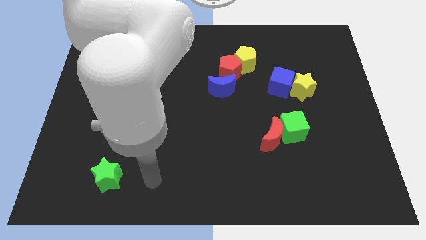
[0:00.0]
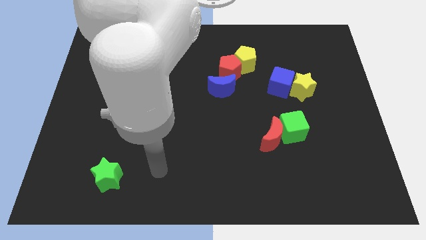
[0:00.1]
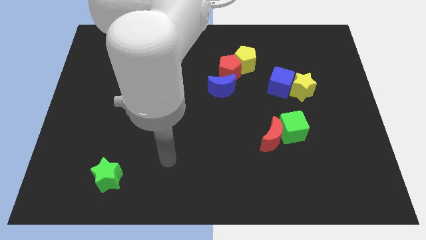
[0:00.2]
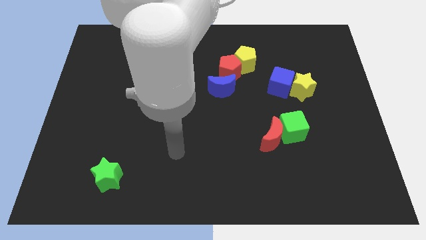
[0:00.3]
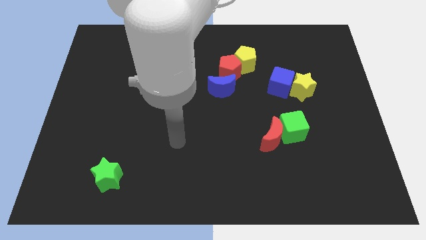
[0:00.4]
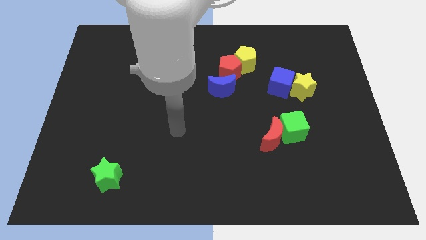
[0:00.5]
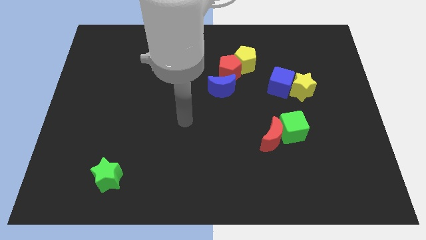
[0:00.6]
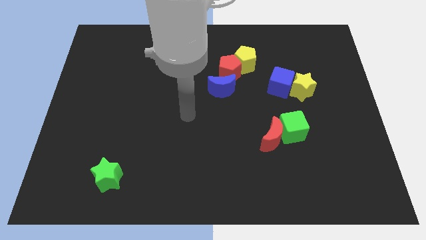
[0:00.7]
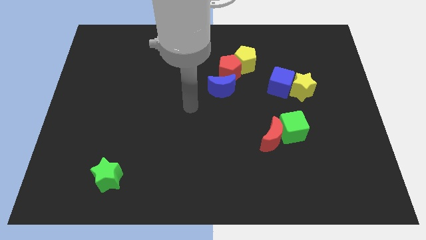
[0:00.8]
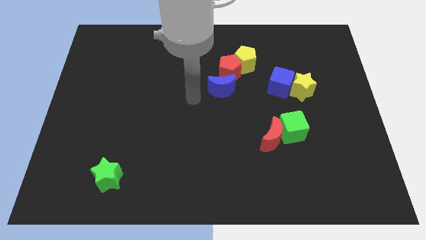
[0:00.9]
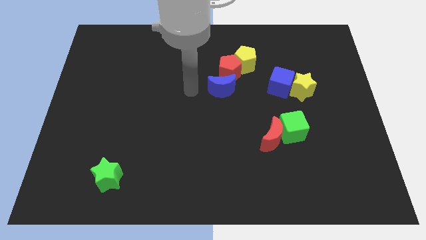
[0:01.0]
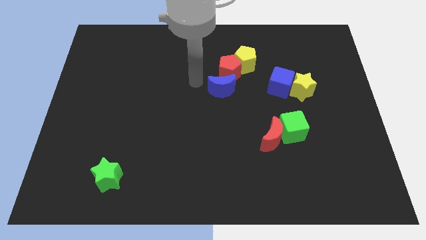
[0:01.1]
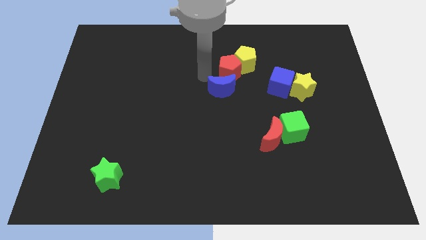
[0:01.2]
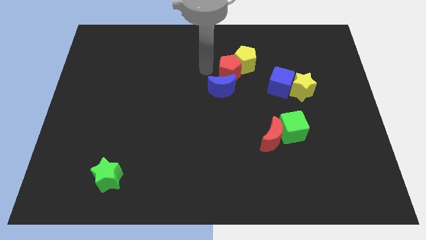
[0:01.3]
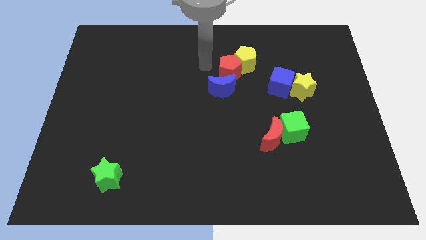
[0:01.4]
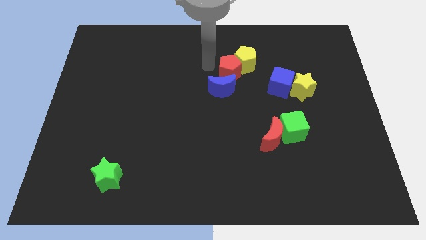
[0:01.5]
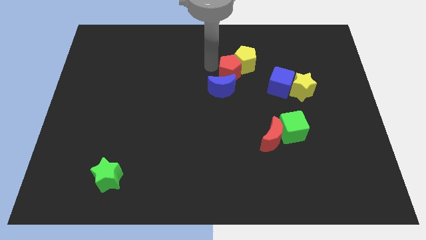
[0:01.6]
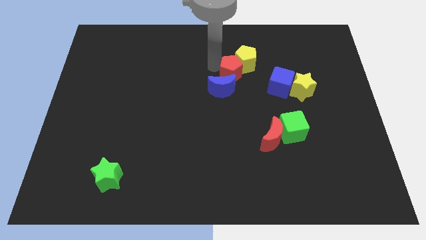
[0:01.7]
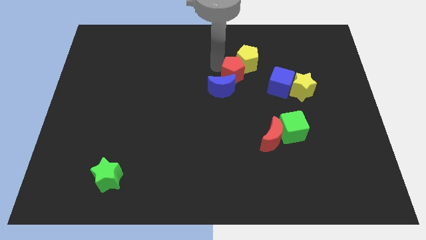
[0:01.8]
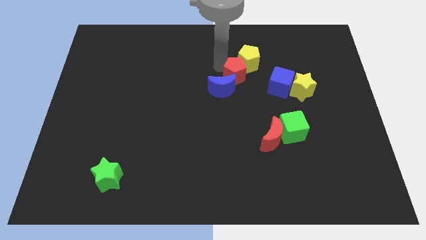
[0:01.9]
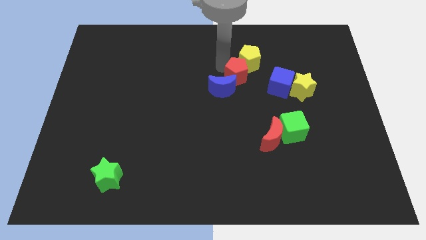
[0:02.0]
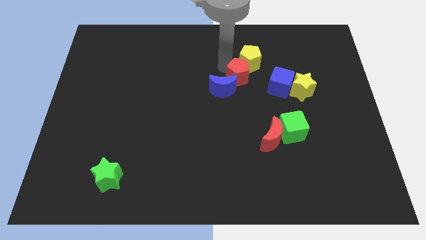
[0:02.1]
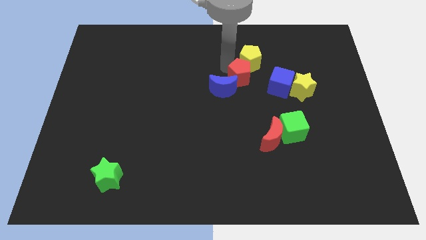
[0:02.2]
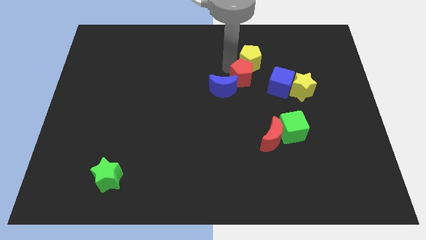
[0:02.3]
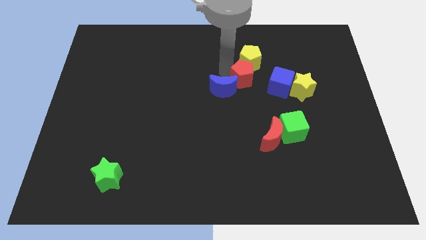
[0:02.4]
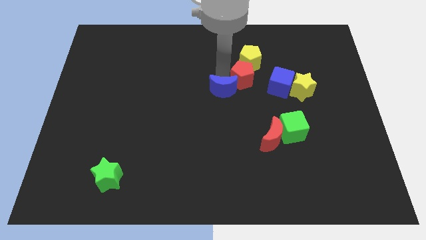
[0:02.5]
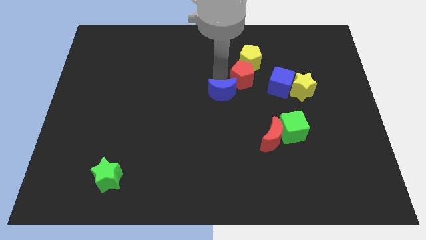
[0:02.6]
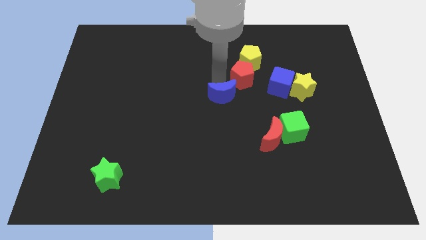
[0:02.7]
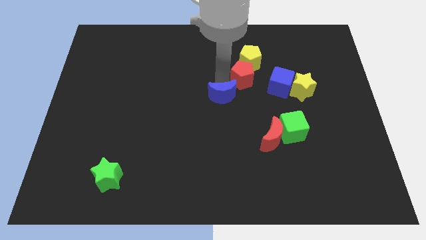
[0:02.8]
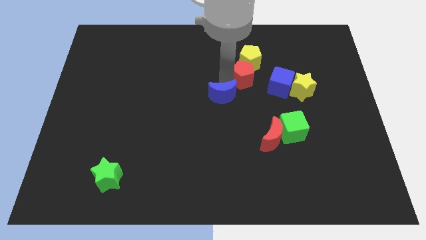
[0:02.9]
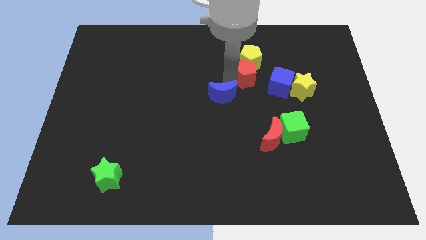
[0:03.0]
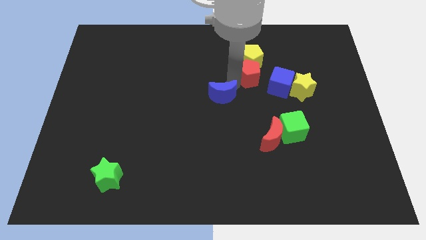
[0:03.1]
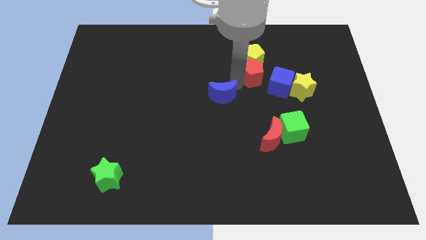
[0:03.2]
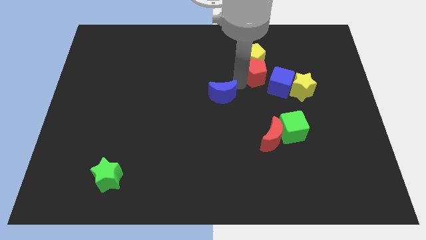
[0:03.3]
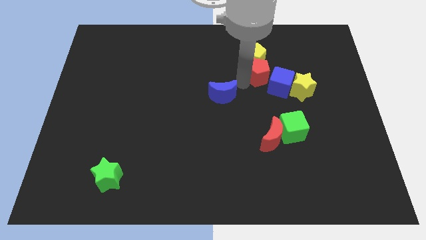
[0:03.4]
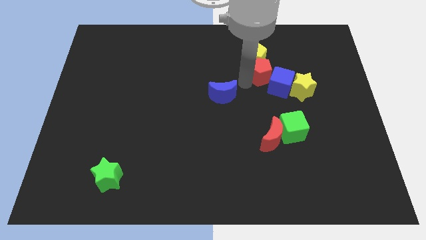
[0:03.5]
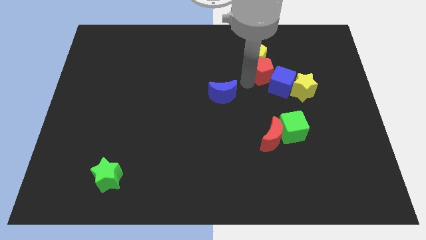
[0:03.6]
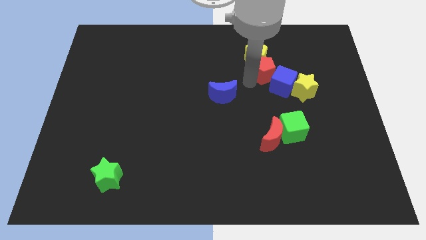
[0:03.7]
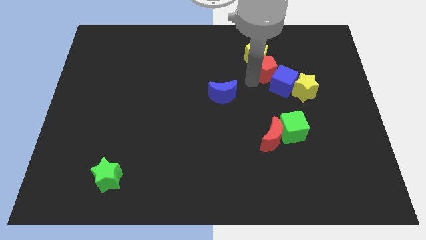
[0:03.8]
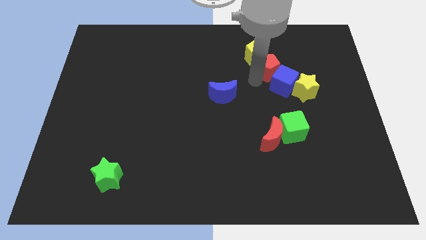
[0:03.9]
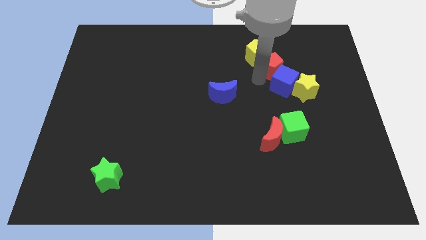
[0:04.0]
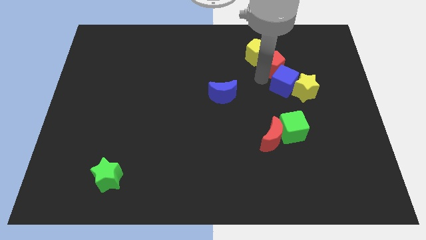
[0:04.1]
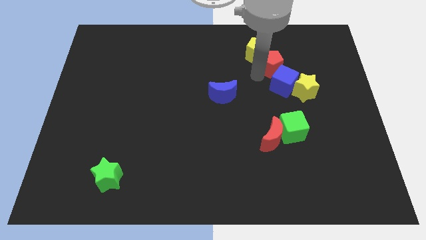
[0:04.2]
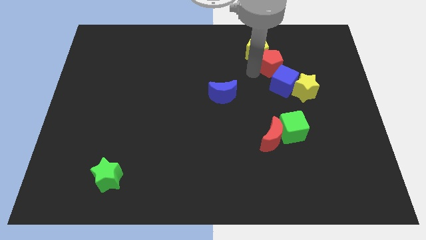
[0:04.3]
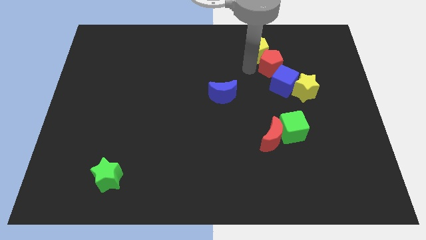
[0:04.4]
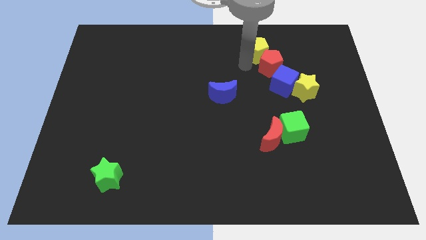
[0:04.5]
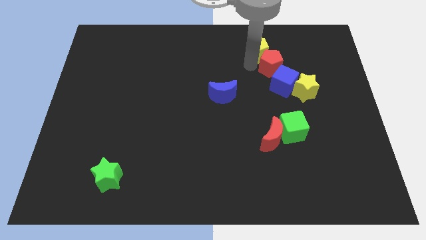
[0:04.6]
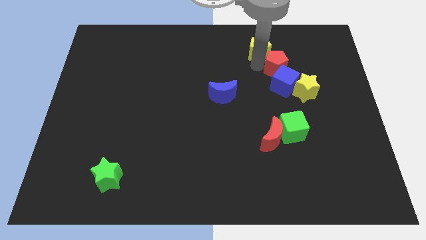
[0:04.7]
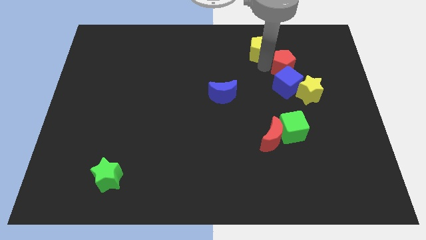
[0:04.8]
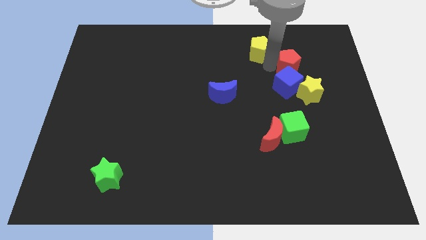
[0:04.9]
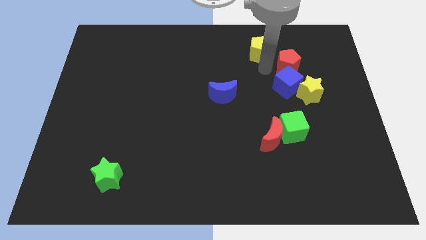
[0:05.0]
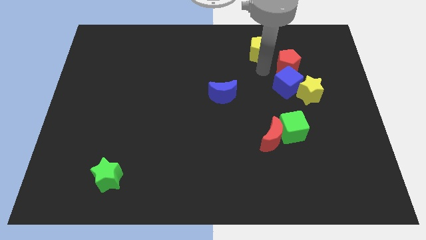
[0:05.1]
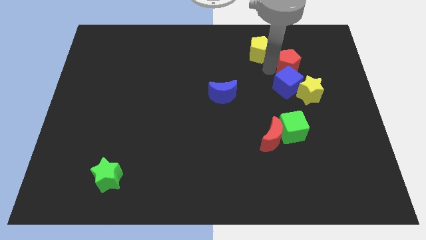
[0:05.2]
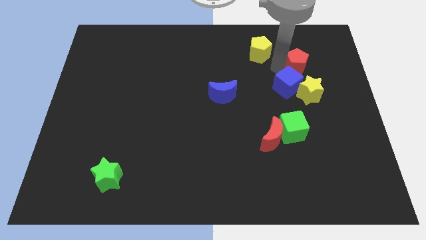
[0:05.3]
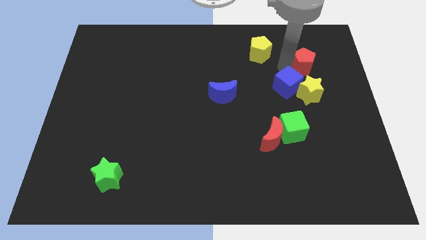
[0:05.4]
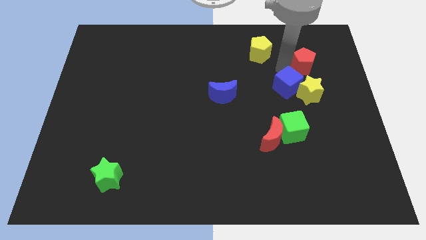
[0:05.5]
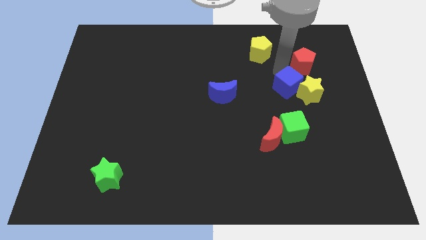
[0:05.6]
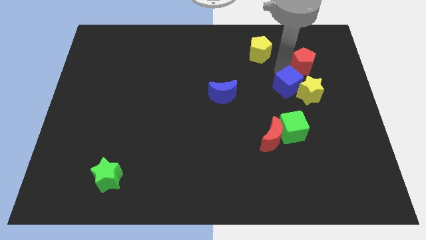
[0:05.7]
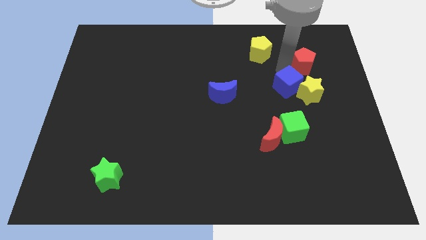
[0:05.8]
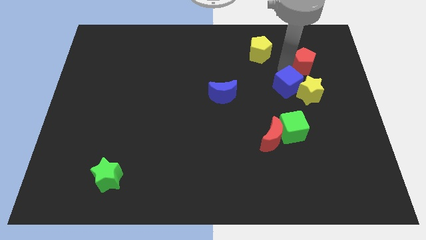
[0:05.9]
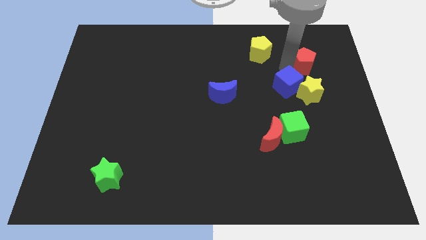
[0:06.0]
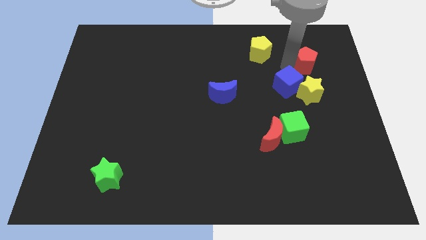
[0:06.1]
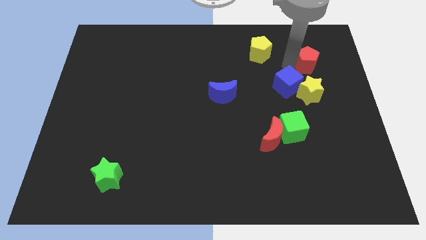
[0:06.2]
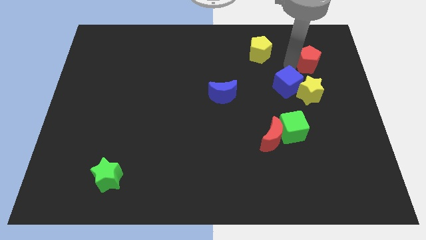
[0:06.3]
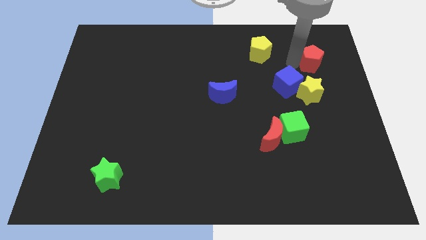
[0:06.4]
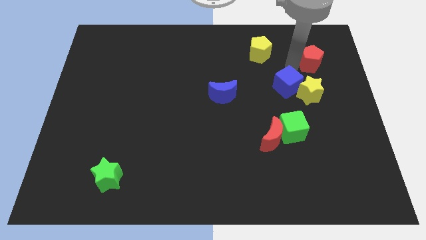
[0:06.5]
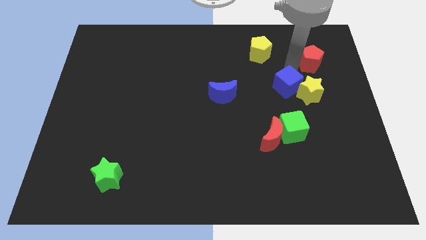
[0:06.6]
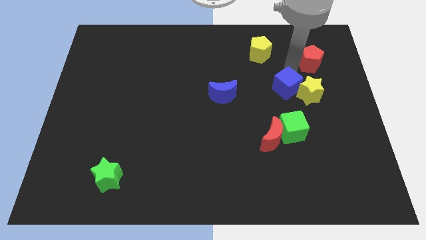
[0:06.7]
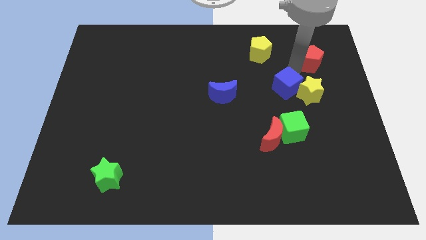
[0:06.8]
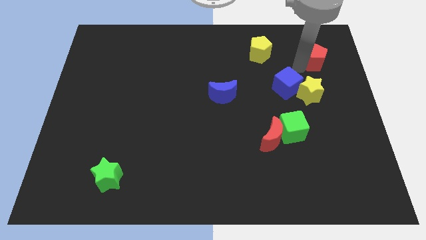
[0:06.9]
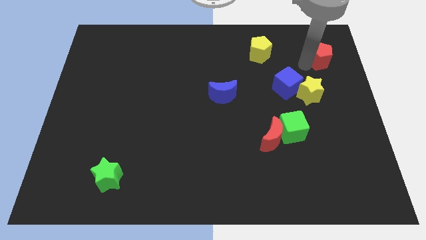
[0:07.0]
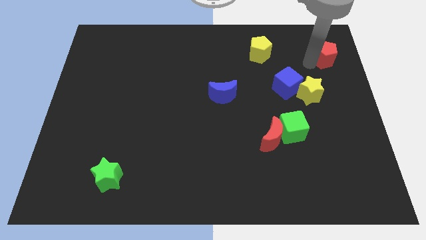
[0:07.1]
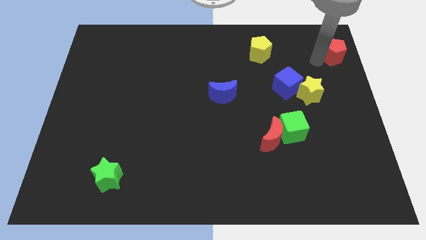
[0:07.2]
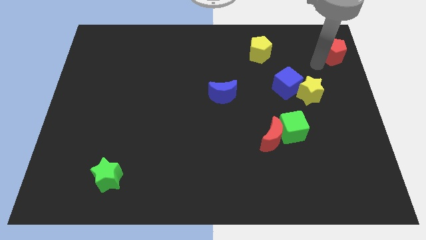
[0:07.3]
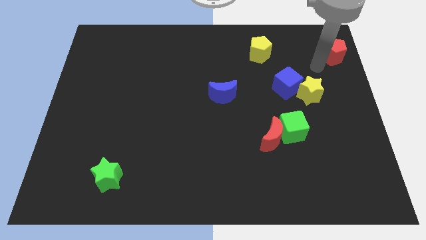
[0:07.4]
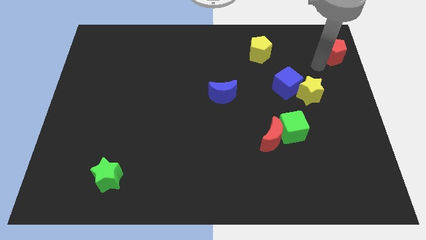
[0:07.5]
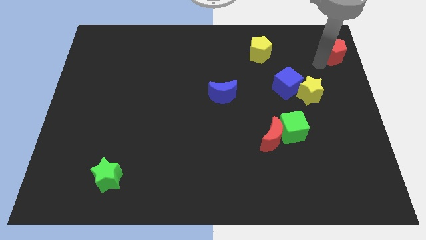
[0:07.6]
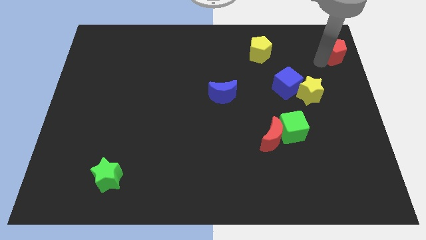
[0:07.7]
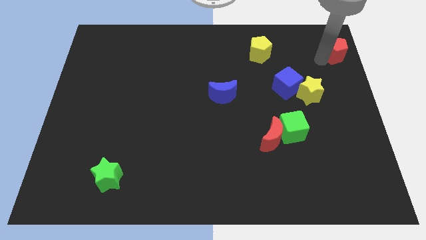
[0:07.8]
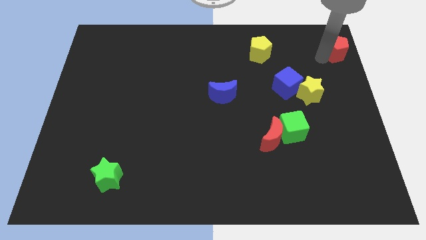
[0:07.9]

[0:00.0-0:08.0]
put the red pentagon to the upper right corner
